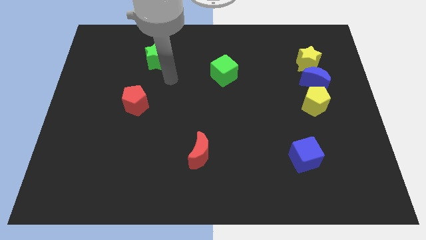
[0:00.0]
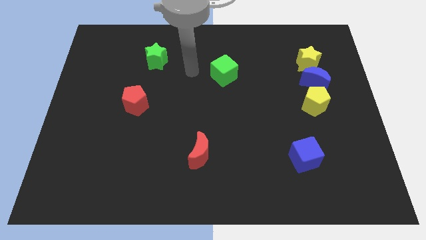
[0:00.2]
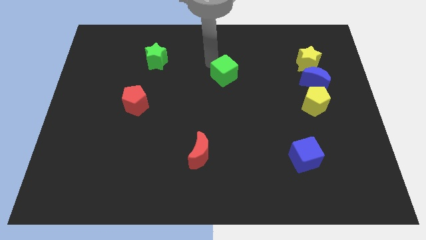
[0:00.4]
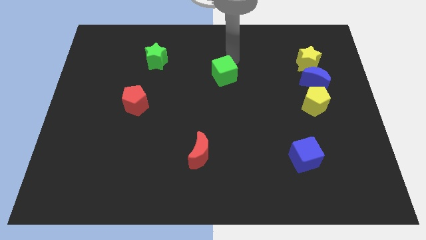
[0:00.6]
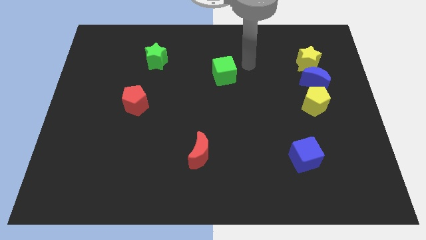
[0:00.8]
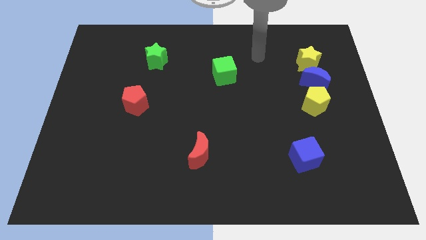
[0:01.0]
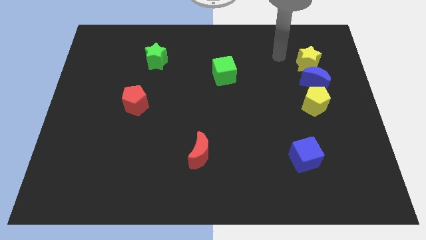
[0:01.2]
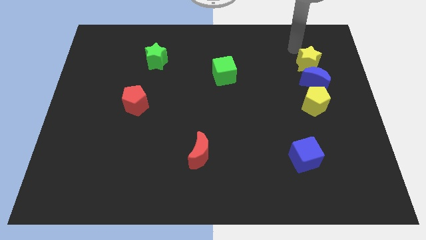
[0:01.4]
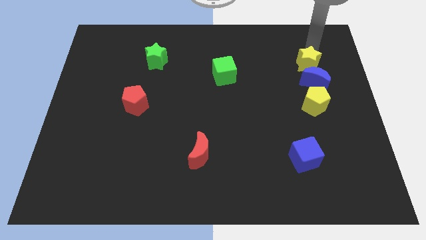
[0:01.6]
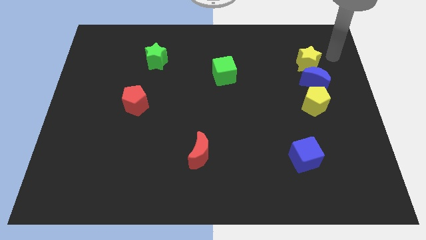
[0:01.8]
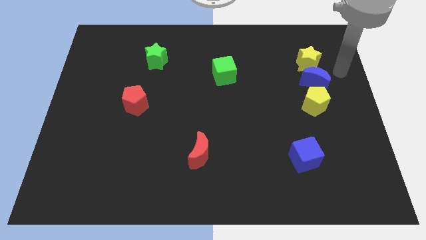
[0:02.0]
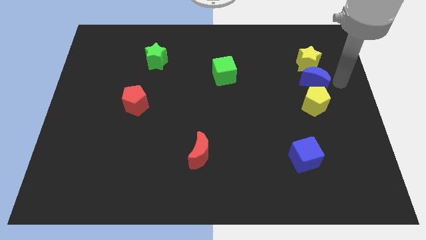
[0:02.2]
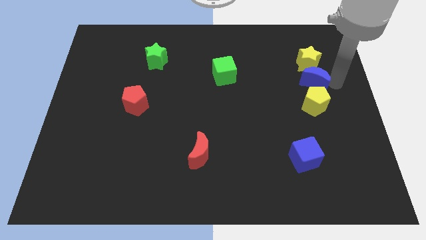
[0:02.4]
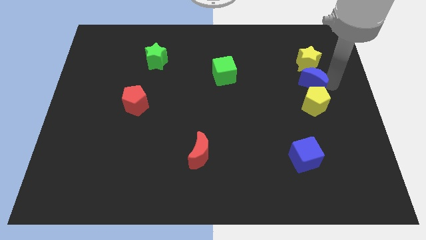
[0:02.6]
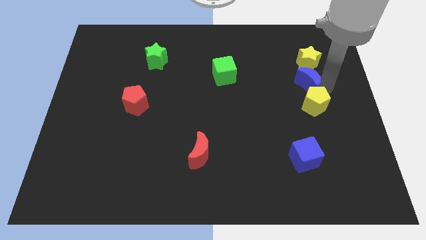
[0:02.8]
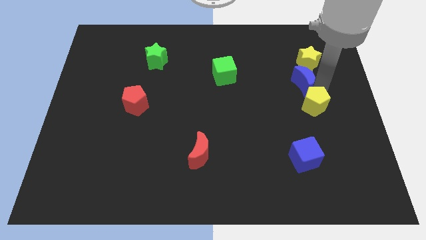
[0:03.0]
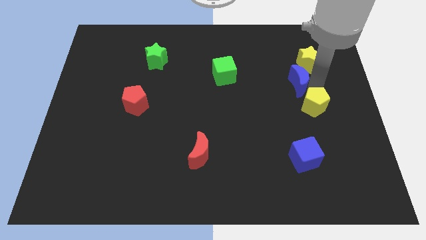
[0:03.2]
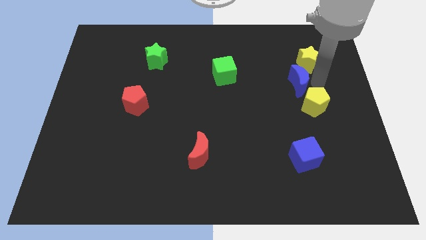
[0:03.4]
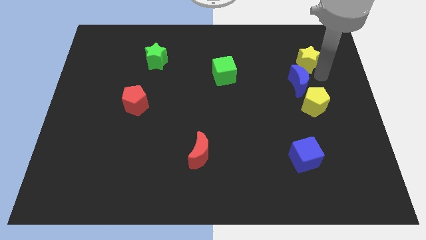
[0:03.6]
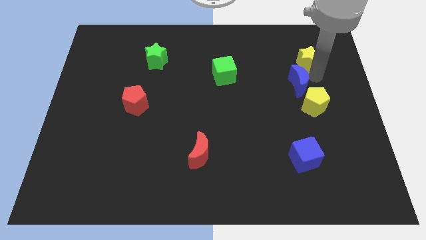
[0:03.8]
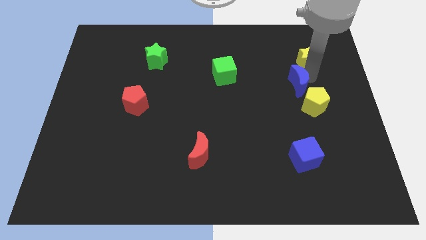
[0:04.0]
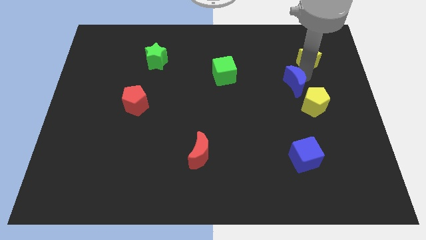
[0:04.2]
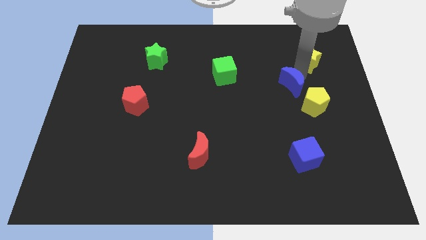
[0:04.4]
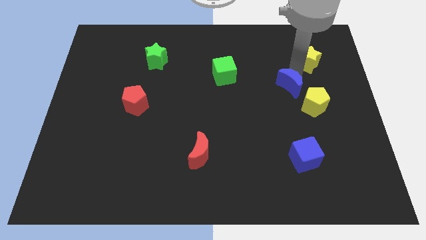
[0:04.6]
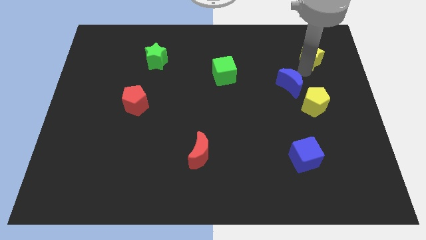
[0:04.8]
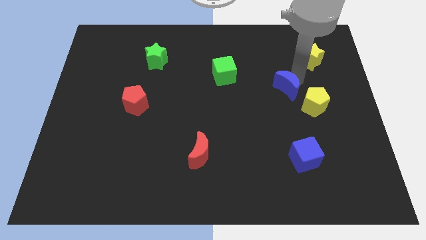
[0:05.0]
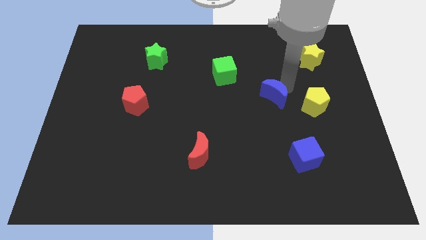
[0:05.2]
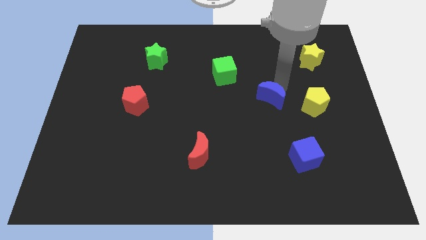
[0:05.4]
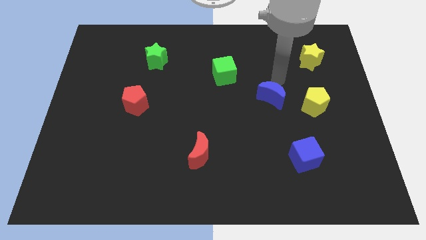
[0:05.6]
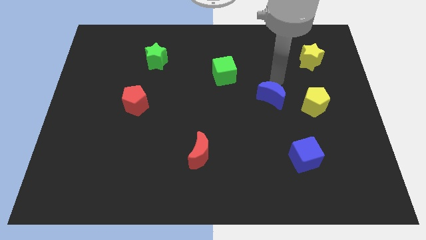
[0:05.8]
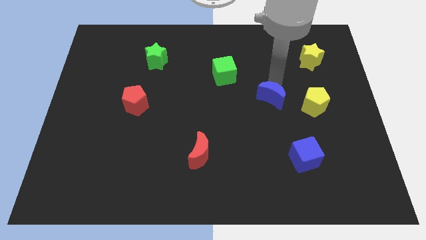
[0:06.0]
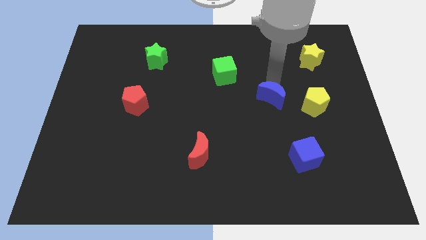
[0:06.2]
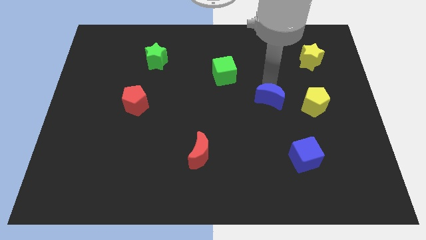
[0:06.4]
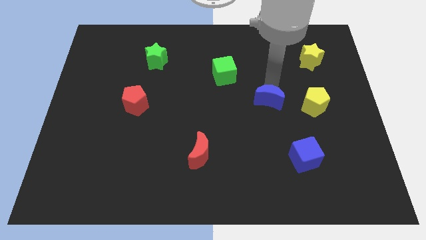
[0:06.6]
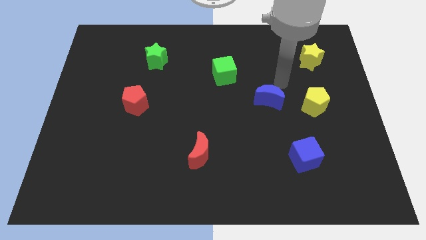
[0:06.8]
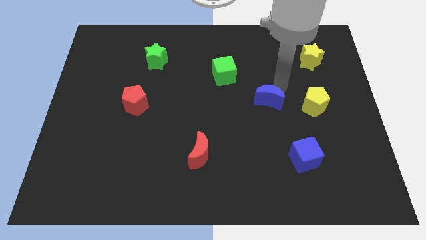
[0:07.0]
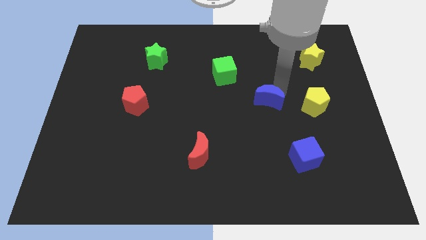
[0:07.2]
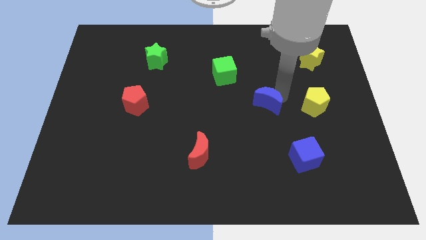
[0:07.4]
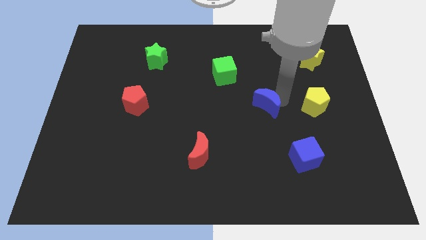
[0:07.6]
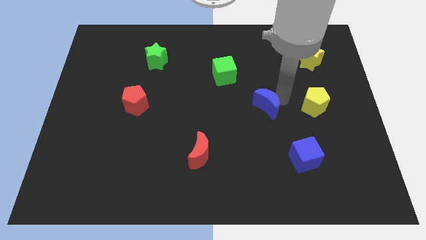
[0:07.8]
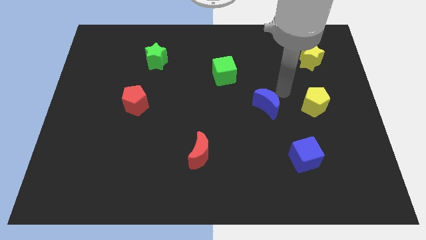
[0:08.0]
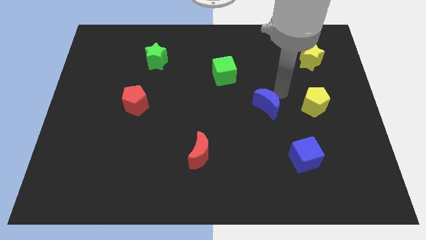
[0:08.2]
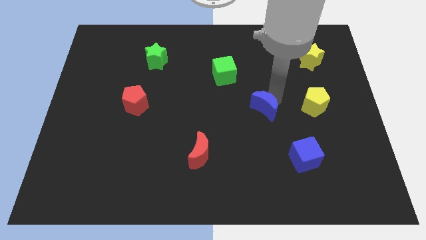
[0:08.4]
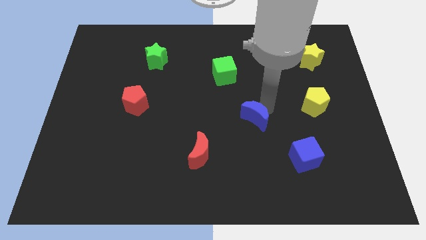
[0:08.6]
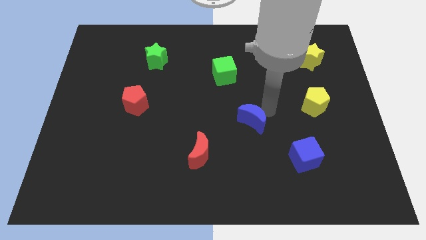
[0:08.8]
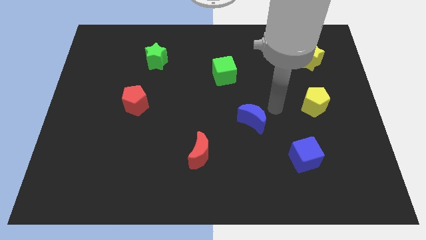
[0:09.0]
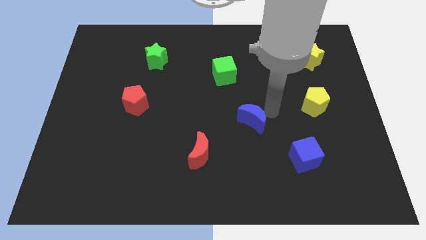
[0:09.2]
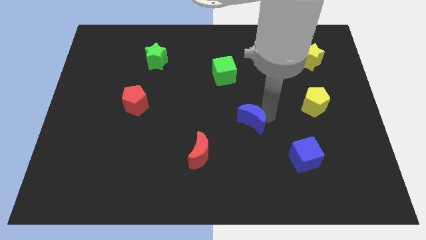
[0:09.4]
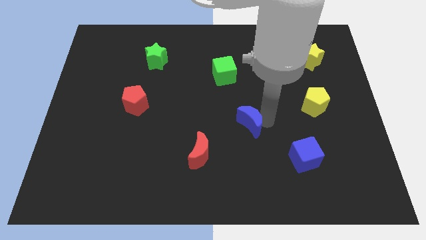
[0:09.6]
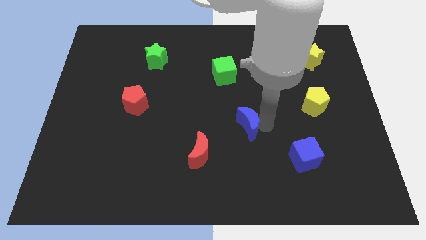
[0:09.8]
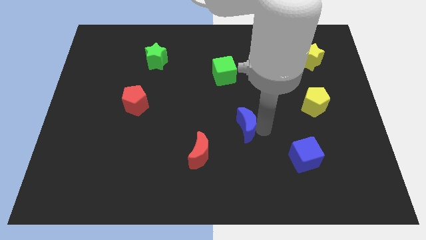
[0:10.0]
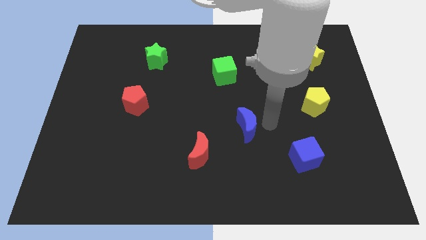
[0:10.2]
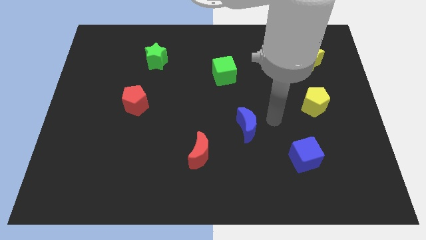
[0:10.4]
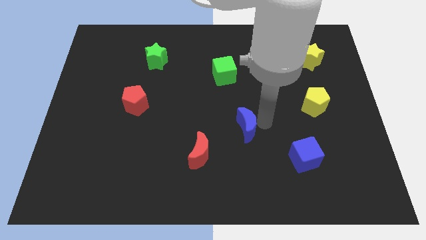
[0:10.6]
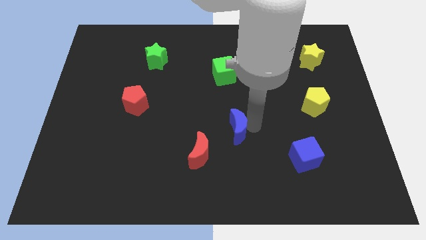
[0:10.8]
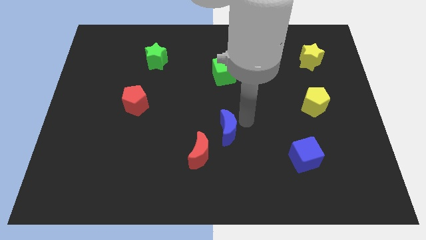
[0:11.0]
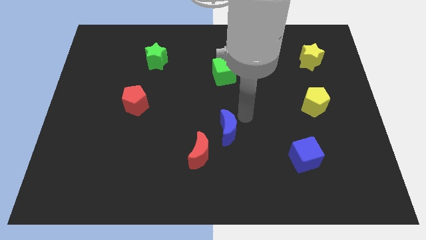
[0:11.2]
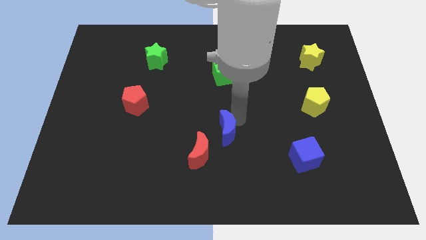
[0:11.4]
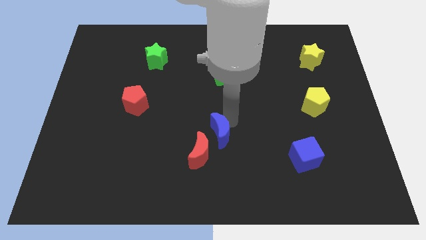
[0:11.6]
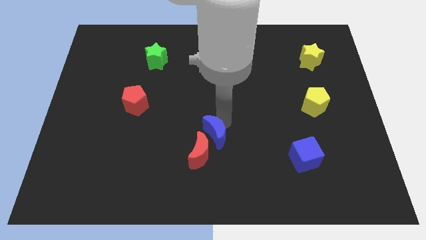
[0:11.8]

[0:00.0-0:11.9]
push the blue moon next to the red moon

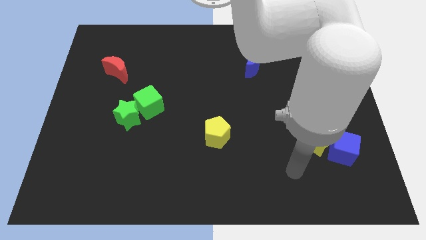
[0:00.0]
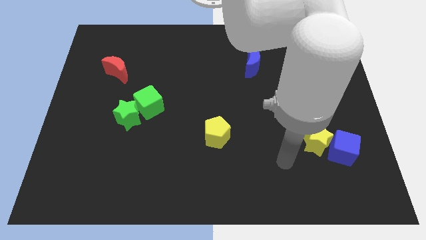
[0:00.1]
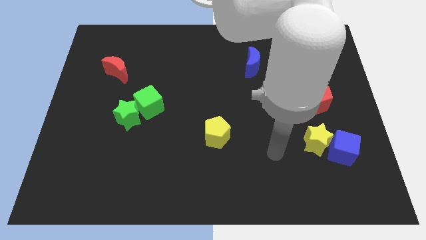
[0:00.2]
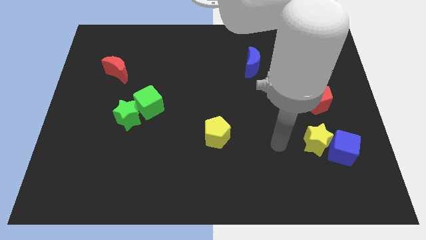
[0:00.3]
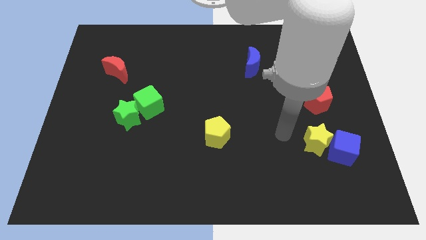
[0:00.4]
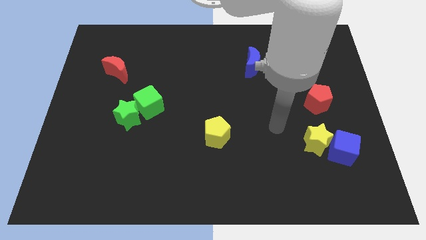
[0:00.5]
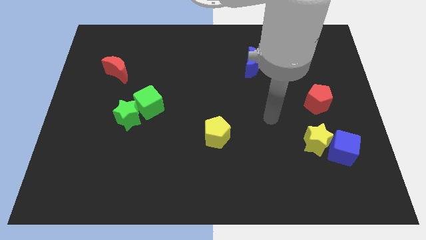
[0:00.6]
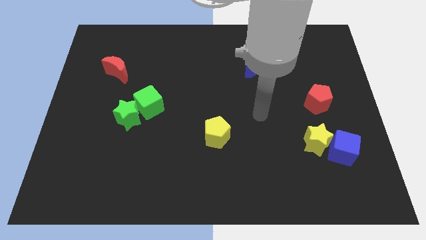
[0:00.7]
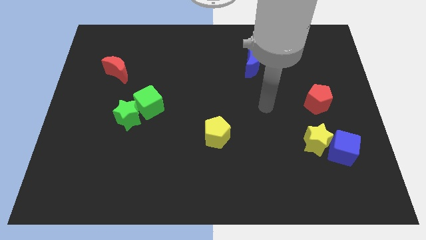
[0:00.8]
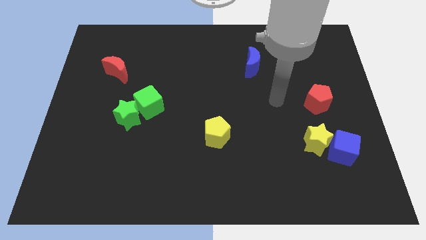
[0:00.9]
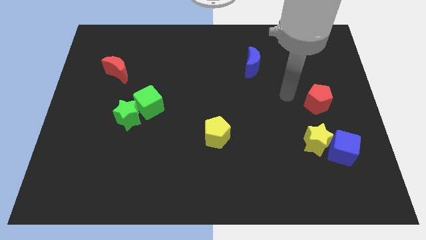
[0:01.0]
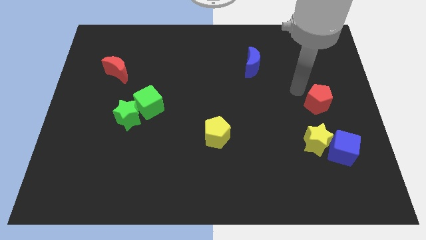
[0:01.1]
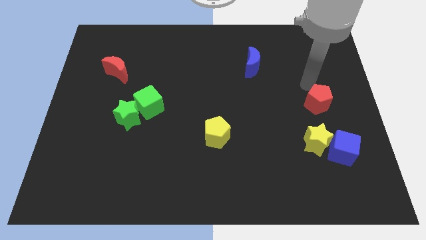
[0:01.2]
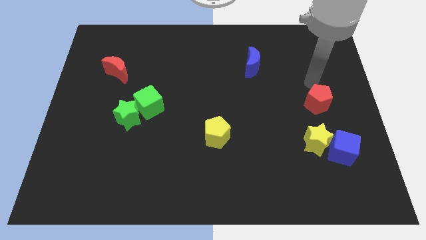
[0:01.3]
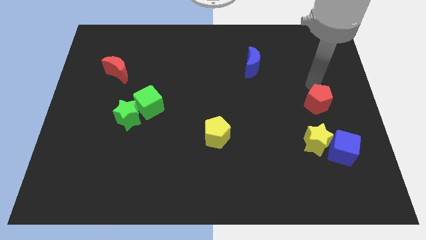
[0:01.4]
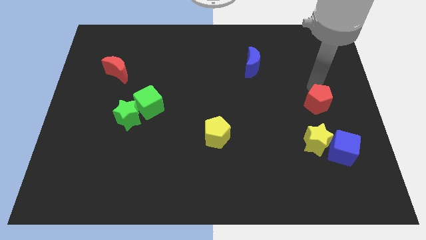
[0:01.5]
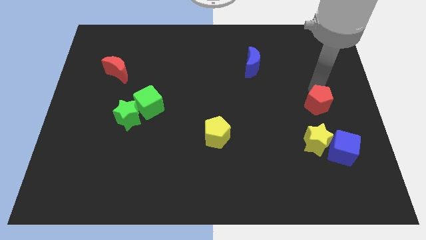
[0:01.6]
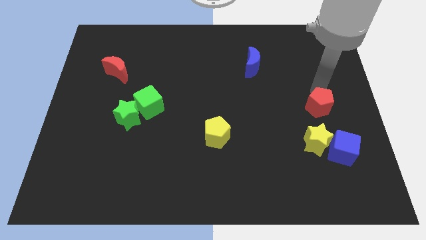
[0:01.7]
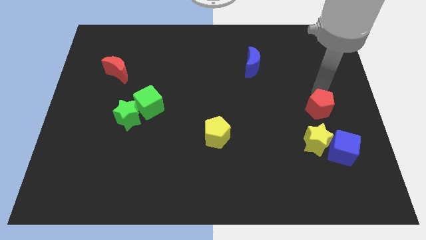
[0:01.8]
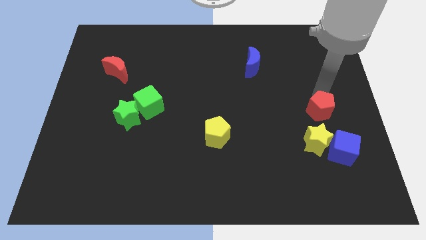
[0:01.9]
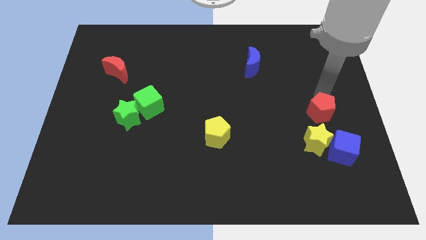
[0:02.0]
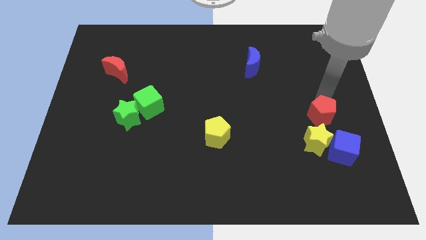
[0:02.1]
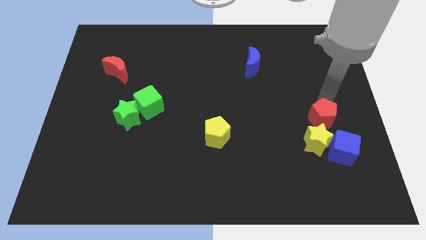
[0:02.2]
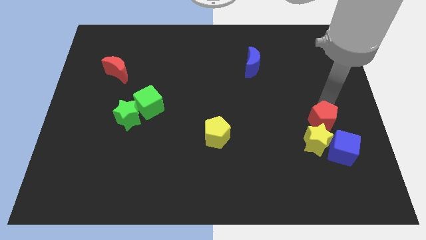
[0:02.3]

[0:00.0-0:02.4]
move the red pentagon close to the yellow star
